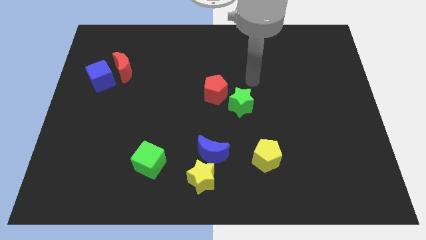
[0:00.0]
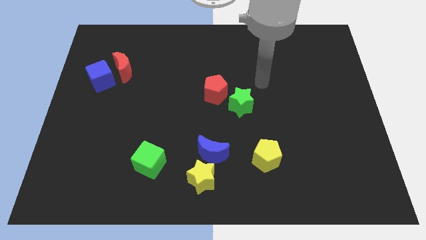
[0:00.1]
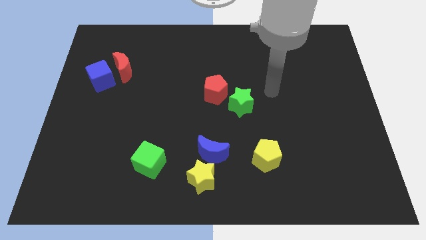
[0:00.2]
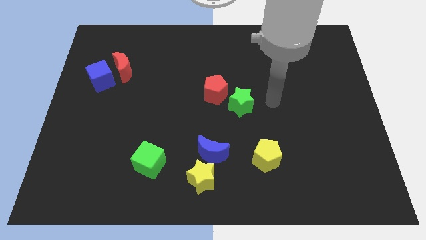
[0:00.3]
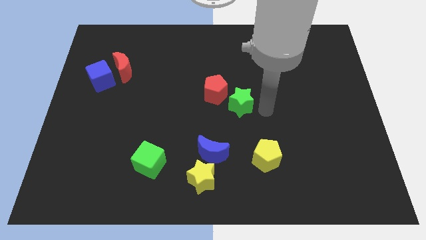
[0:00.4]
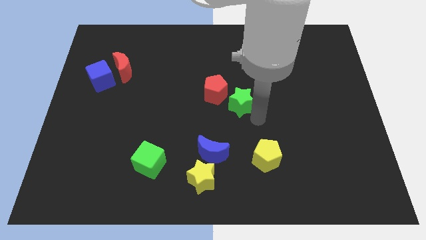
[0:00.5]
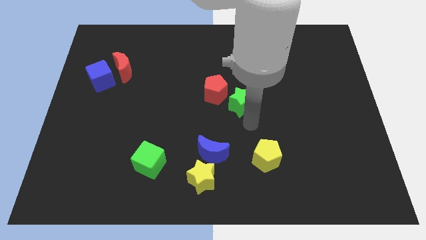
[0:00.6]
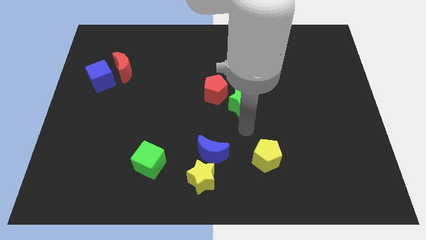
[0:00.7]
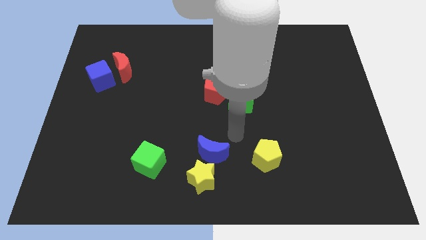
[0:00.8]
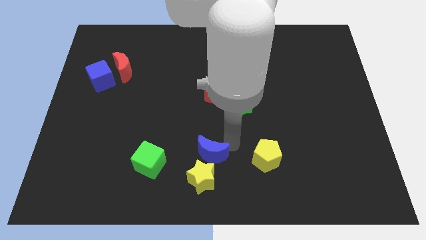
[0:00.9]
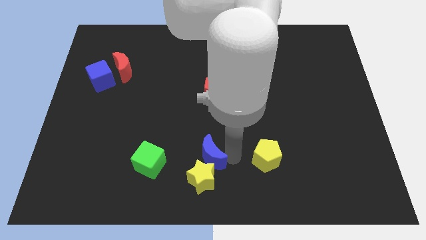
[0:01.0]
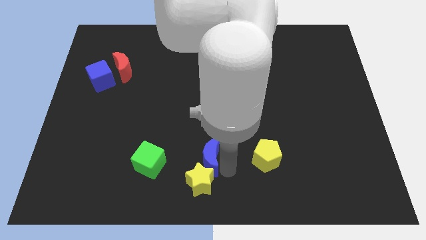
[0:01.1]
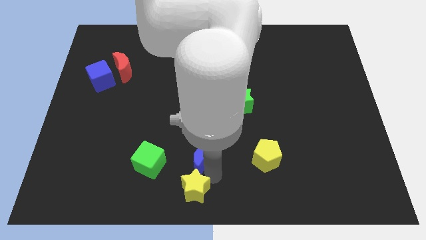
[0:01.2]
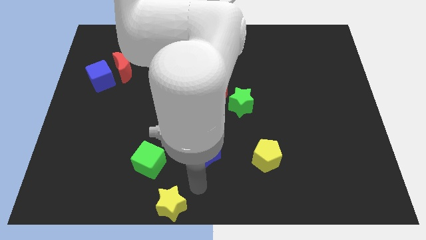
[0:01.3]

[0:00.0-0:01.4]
pull the blue moon apart from the yellow star

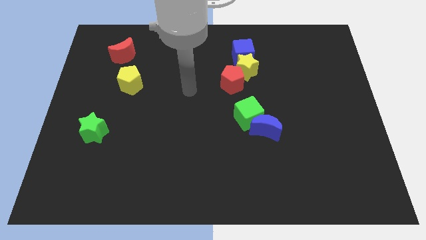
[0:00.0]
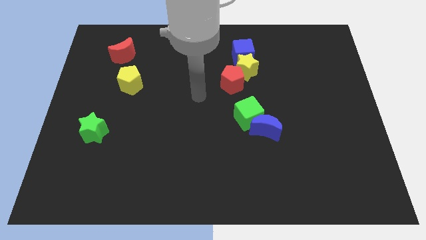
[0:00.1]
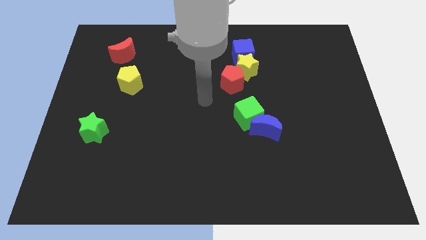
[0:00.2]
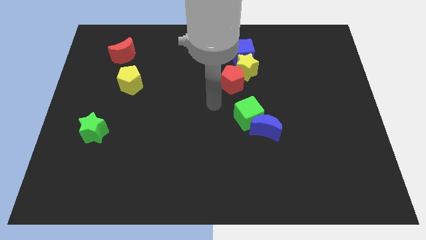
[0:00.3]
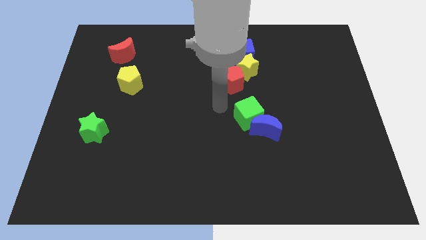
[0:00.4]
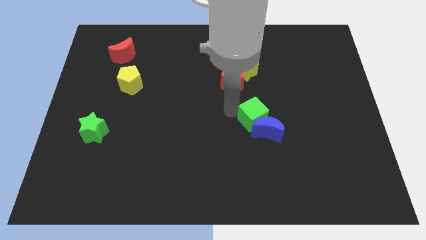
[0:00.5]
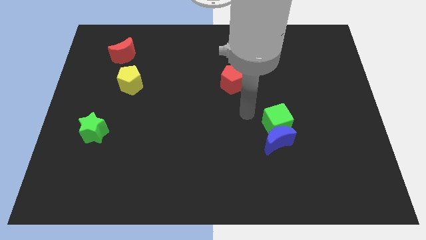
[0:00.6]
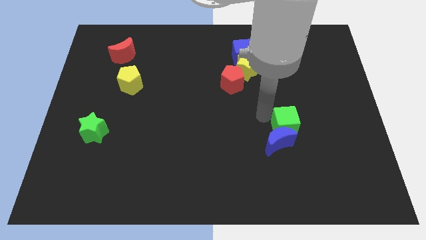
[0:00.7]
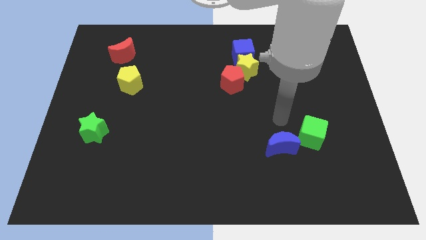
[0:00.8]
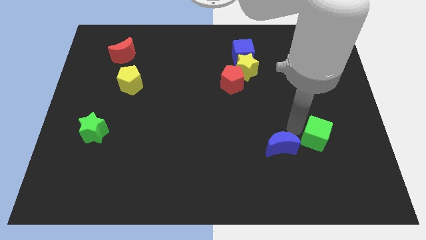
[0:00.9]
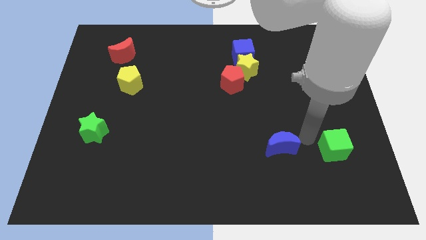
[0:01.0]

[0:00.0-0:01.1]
pull the blue moon apart from the green cube

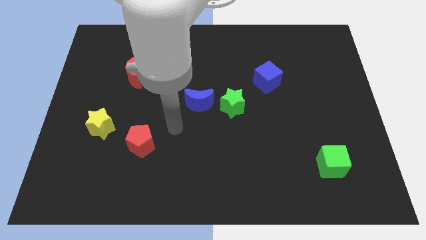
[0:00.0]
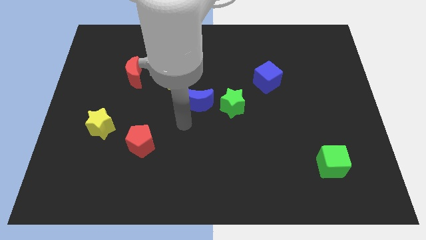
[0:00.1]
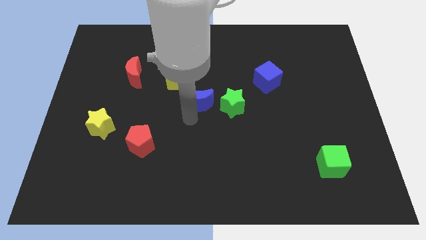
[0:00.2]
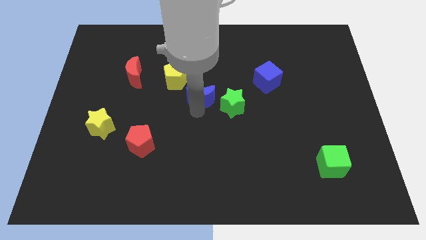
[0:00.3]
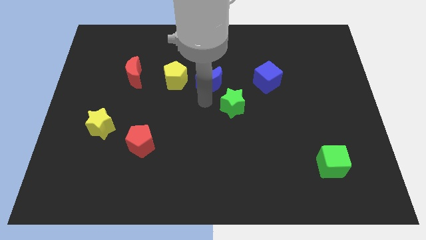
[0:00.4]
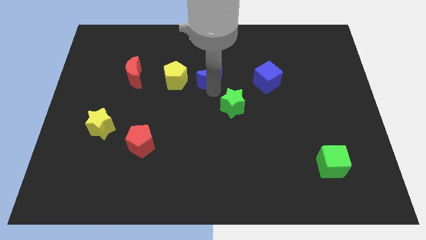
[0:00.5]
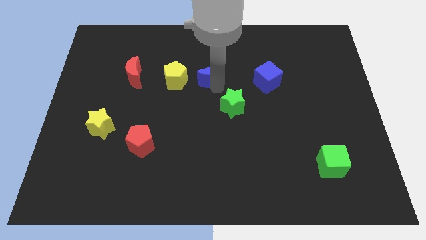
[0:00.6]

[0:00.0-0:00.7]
pull the green star apart from the blue moon

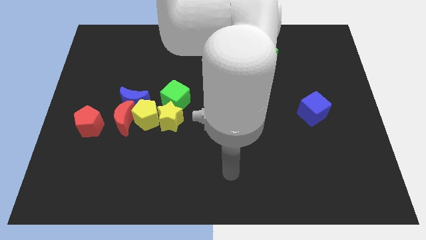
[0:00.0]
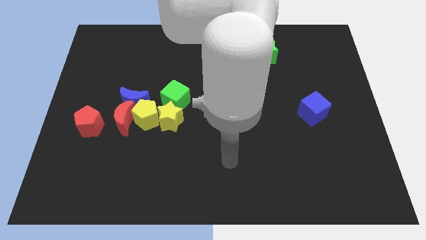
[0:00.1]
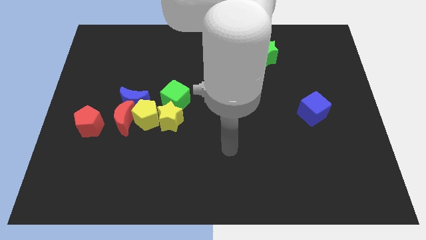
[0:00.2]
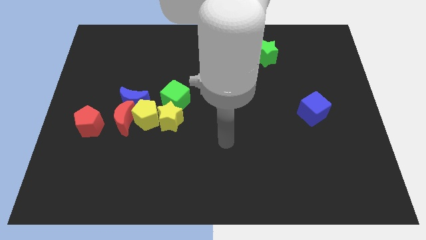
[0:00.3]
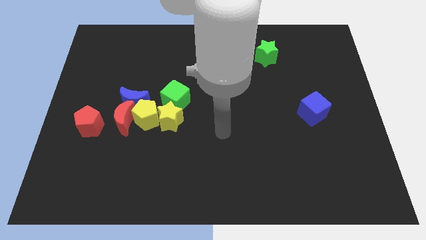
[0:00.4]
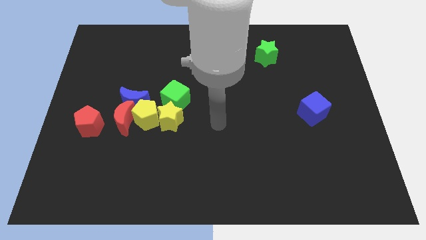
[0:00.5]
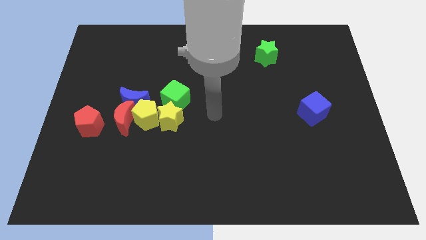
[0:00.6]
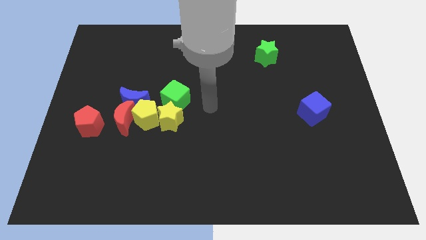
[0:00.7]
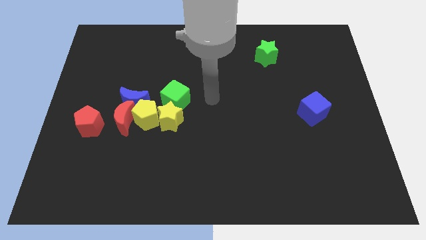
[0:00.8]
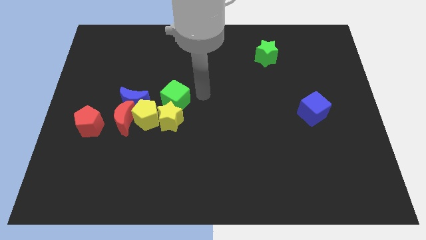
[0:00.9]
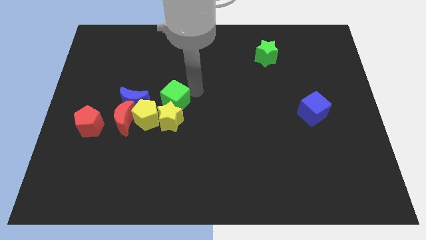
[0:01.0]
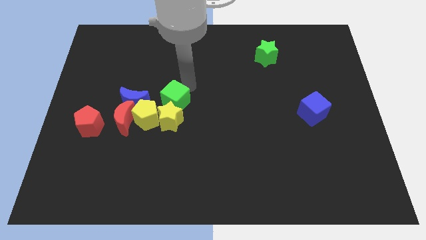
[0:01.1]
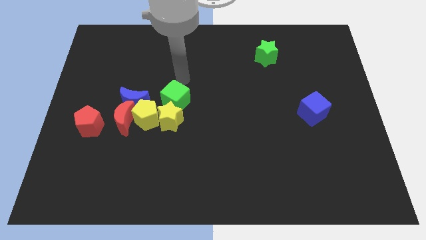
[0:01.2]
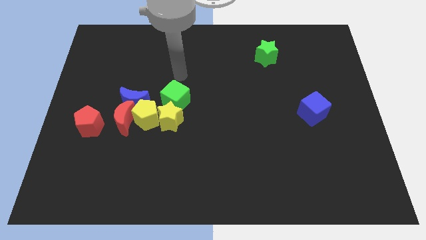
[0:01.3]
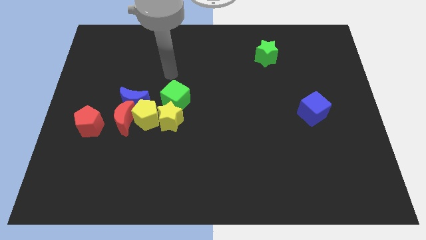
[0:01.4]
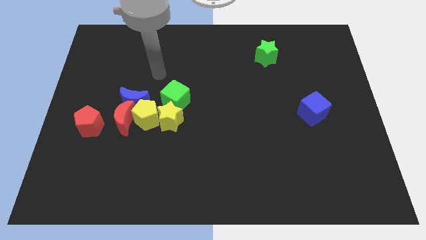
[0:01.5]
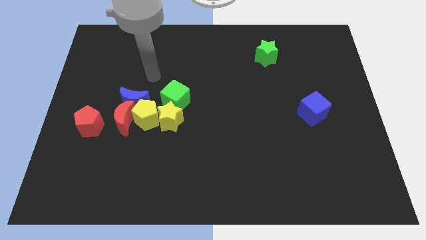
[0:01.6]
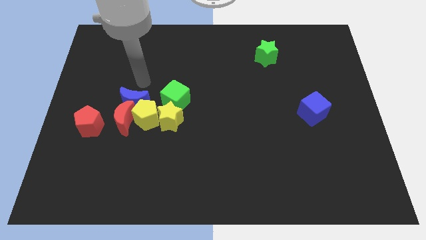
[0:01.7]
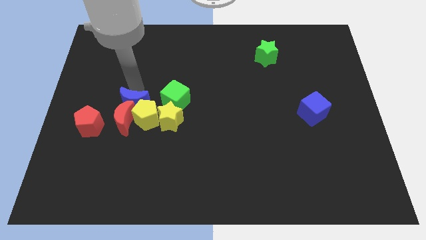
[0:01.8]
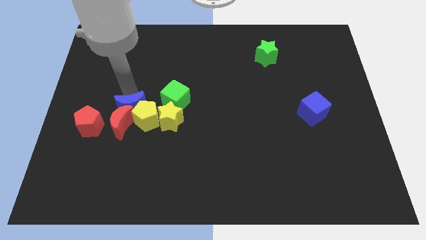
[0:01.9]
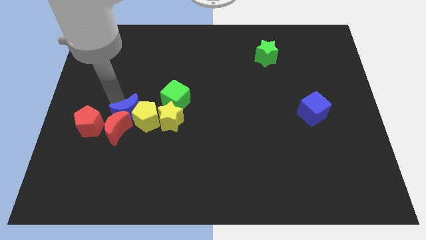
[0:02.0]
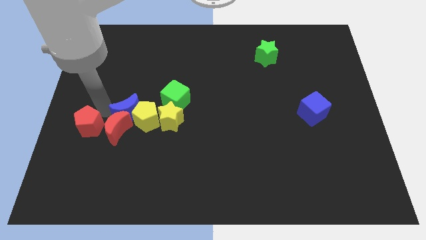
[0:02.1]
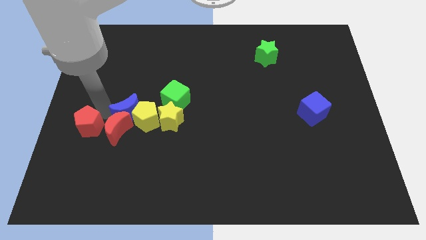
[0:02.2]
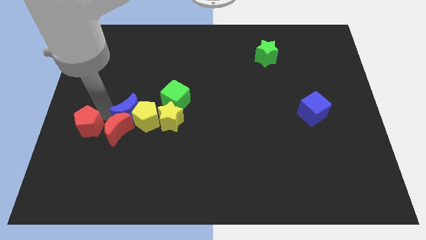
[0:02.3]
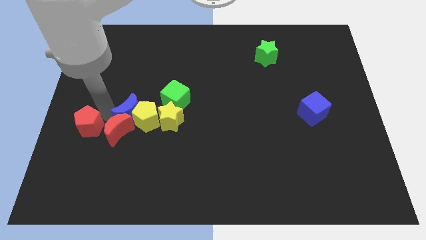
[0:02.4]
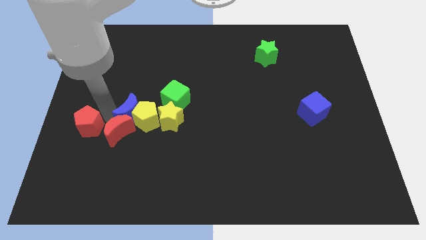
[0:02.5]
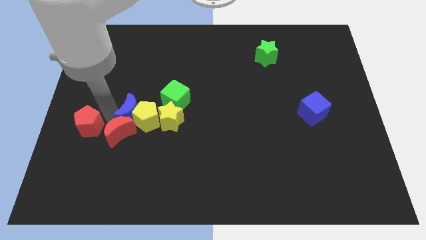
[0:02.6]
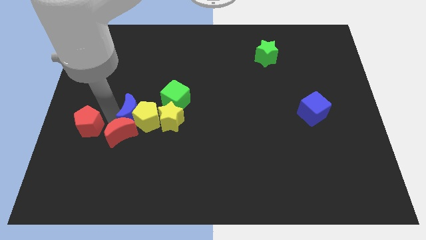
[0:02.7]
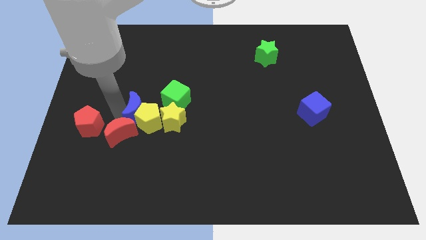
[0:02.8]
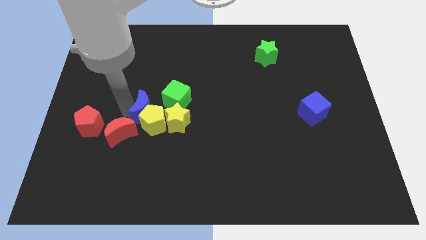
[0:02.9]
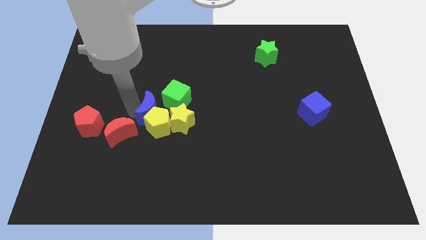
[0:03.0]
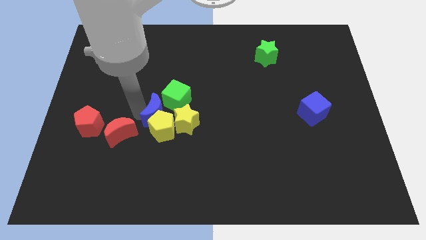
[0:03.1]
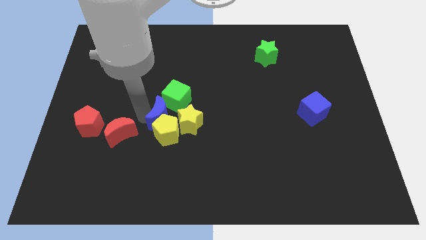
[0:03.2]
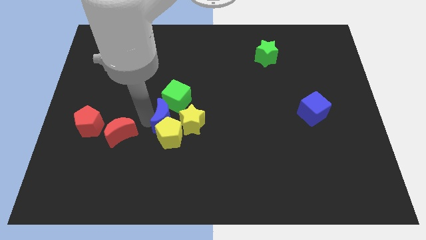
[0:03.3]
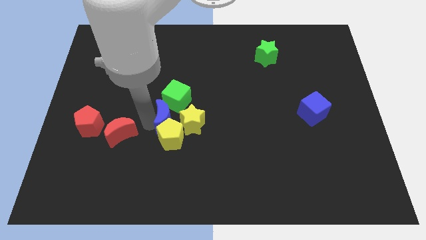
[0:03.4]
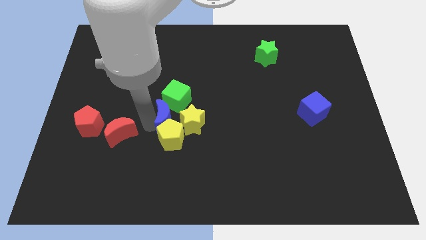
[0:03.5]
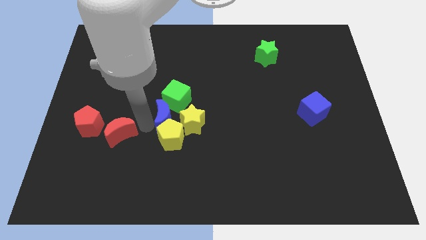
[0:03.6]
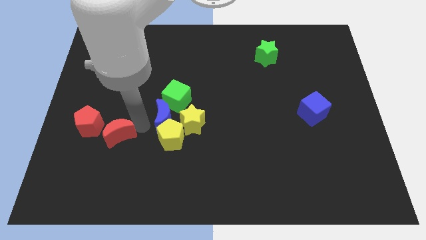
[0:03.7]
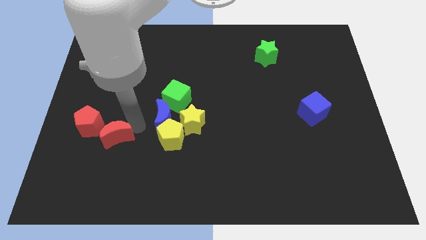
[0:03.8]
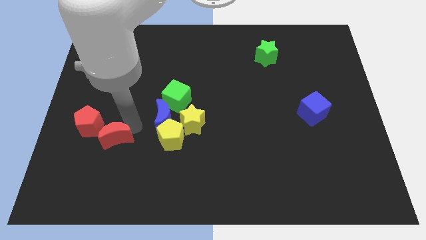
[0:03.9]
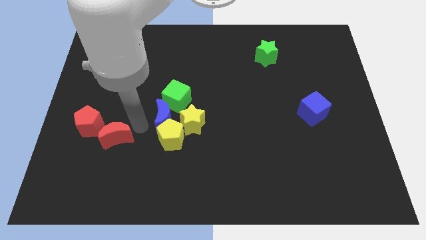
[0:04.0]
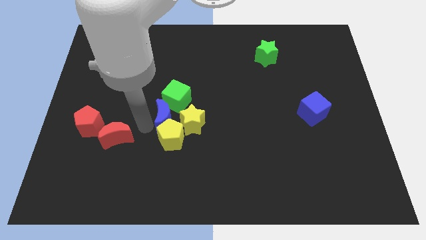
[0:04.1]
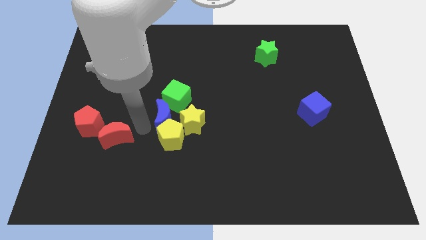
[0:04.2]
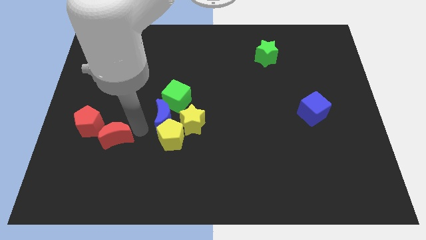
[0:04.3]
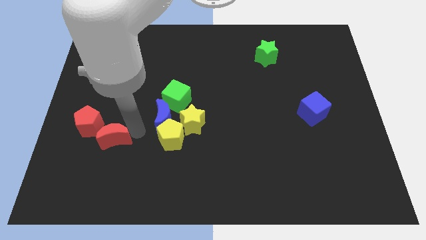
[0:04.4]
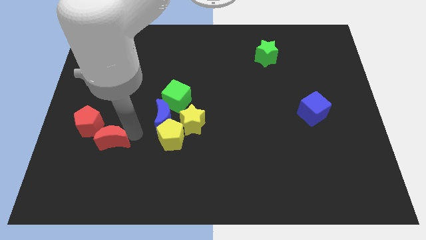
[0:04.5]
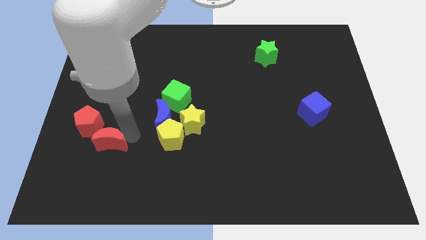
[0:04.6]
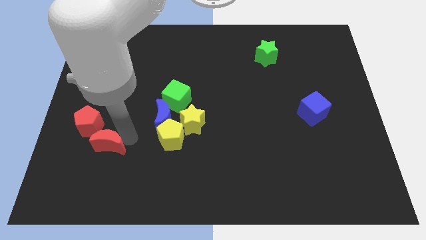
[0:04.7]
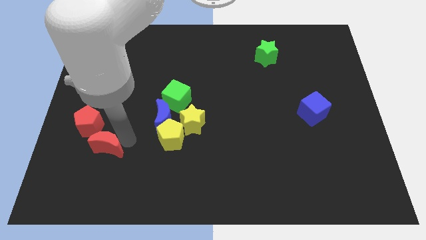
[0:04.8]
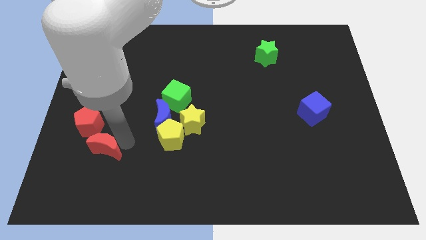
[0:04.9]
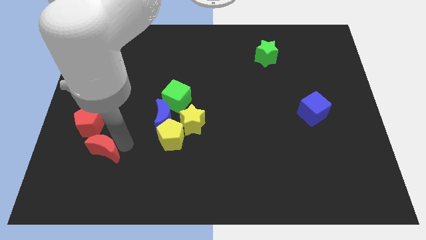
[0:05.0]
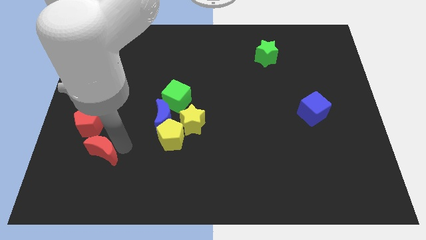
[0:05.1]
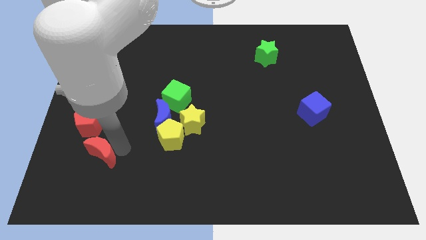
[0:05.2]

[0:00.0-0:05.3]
move the red moon away from the group of blocks

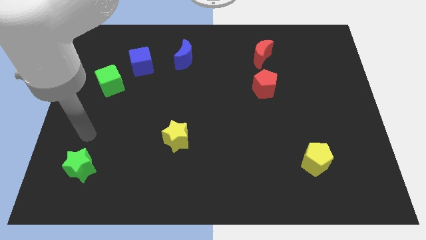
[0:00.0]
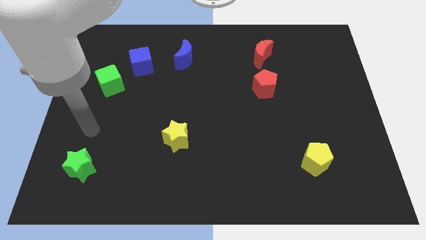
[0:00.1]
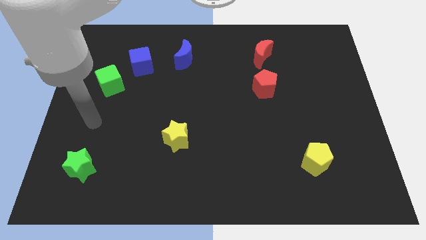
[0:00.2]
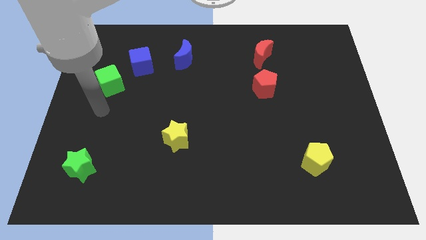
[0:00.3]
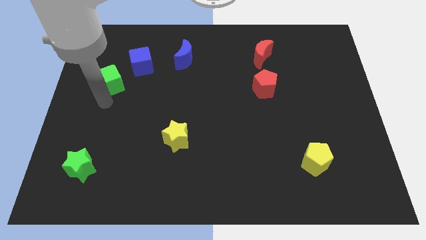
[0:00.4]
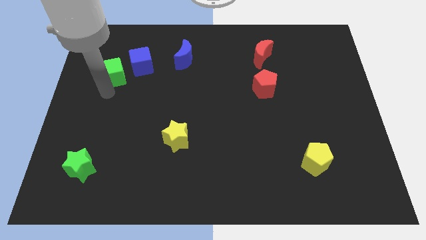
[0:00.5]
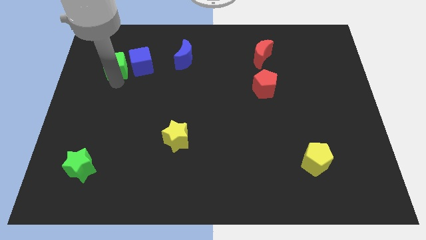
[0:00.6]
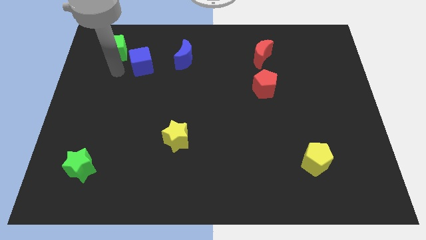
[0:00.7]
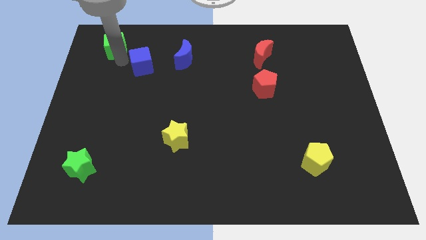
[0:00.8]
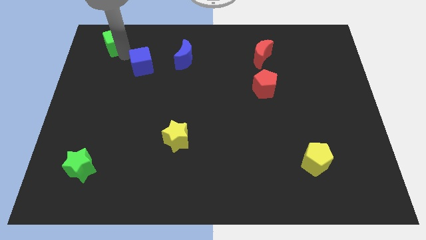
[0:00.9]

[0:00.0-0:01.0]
move the blue cube away from the green cube
